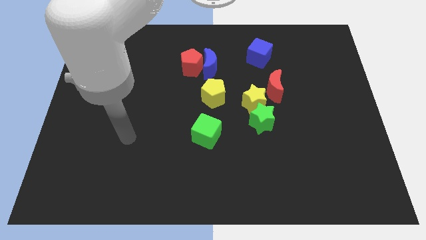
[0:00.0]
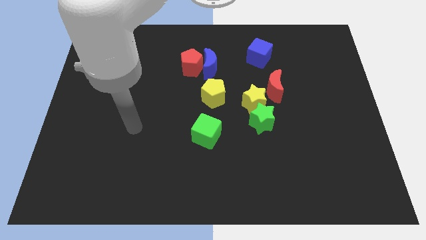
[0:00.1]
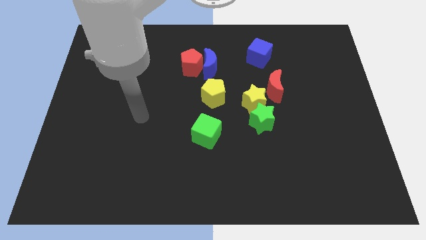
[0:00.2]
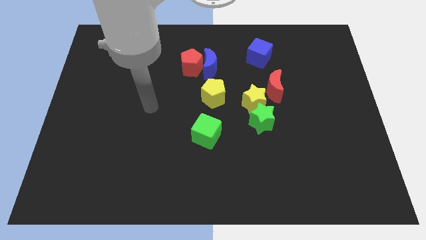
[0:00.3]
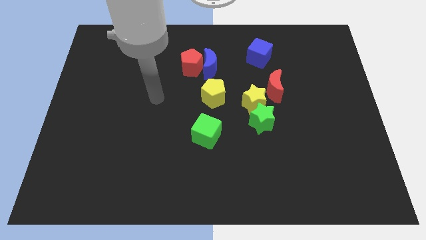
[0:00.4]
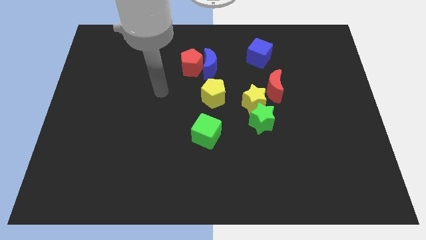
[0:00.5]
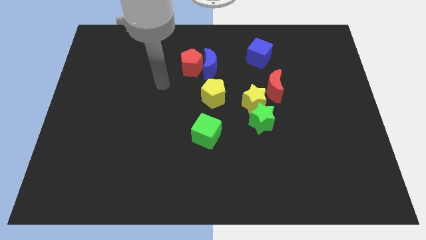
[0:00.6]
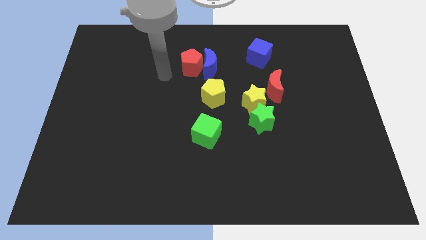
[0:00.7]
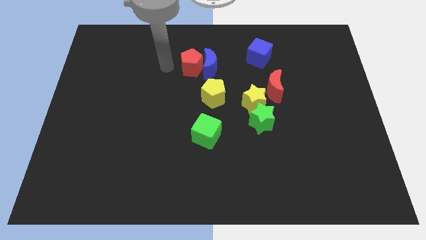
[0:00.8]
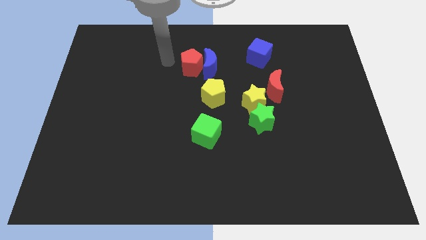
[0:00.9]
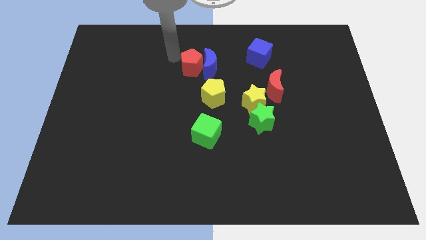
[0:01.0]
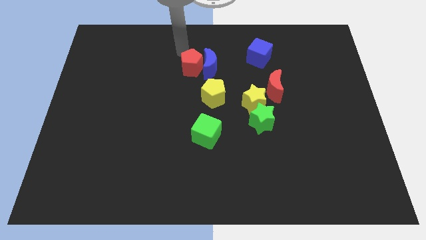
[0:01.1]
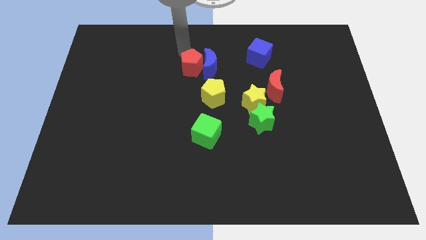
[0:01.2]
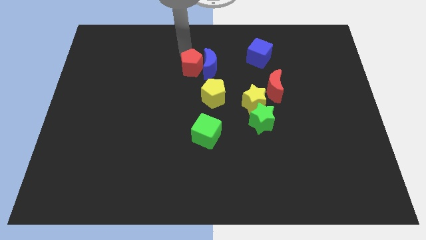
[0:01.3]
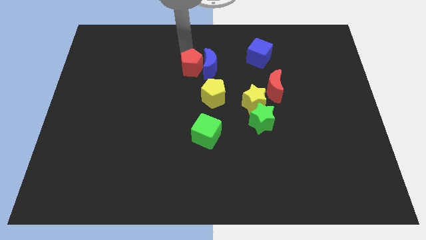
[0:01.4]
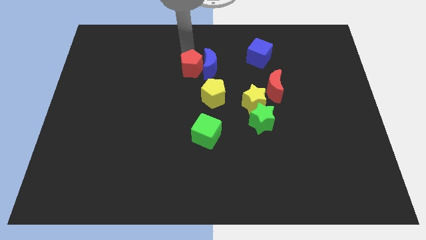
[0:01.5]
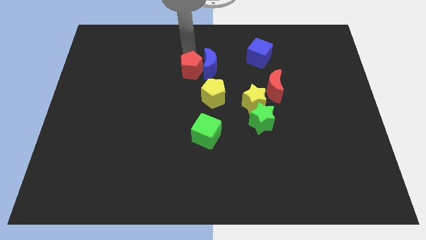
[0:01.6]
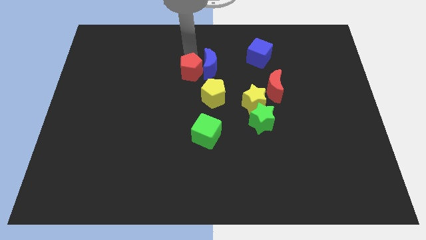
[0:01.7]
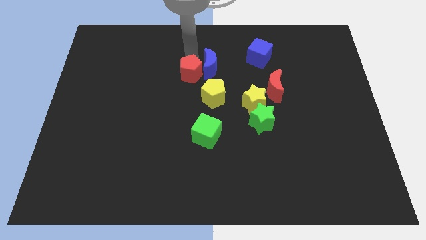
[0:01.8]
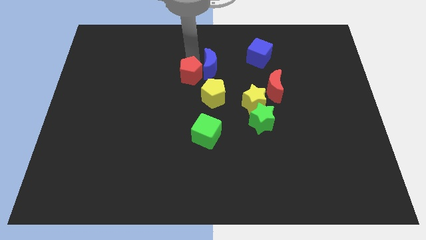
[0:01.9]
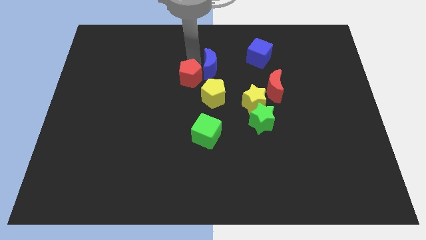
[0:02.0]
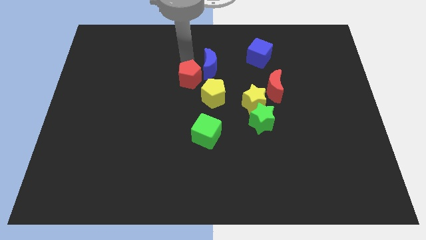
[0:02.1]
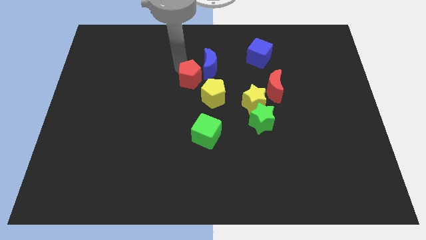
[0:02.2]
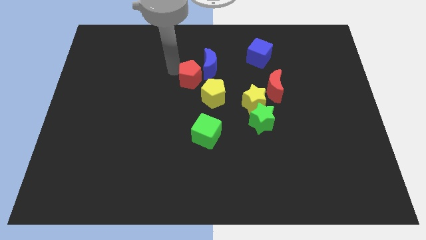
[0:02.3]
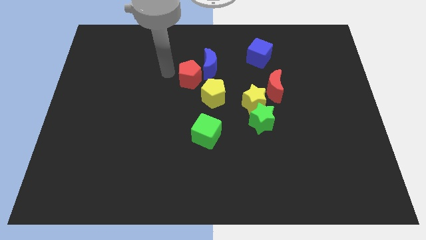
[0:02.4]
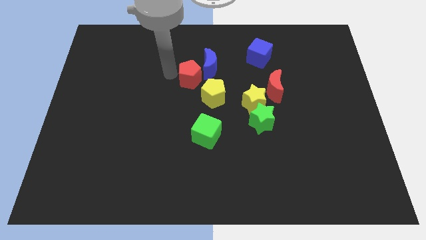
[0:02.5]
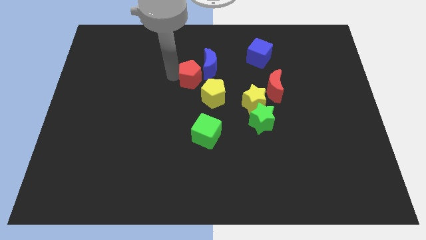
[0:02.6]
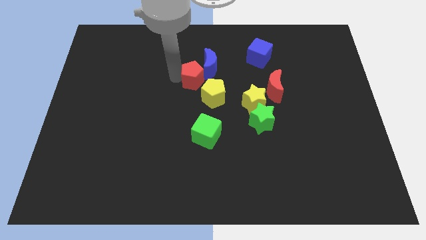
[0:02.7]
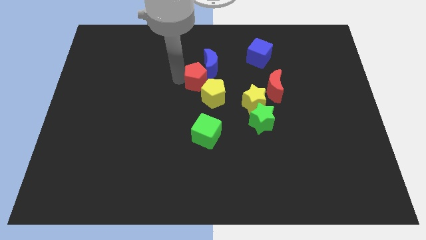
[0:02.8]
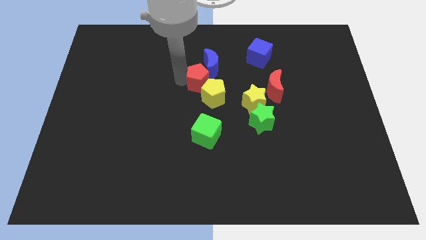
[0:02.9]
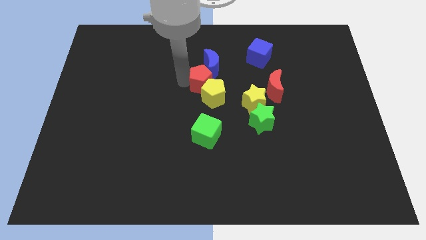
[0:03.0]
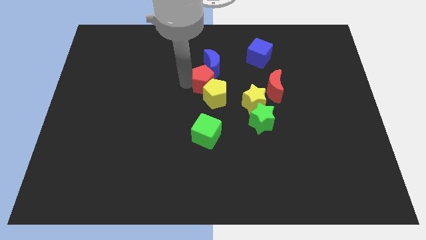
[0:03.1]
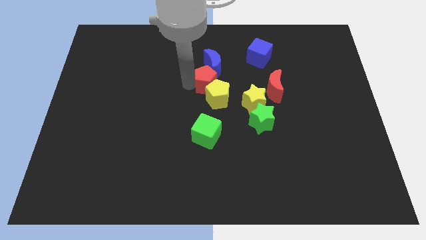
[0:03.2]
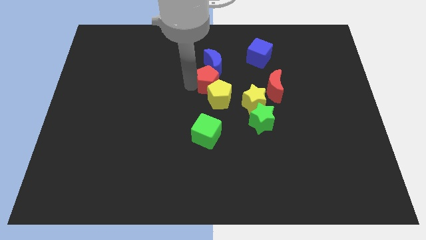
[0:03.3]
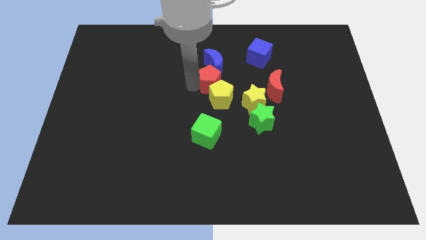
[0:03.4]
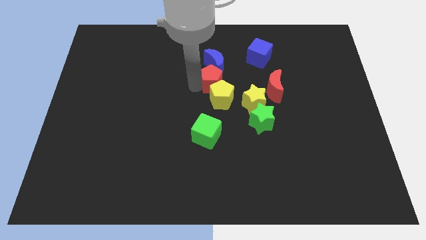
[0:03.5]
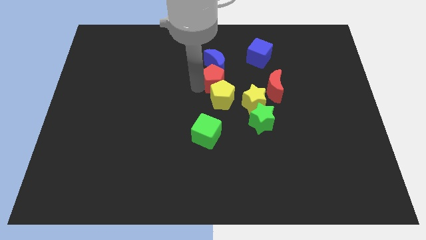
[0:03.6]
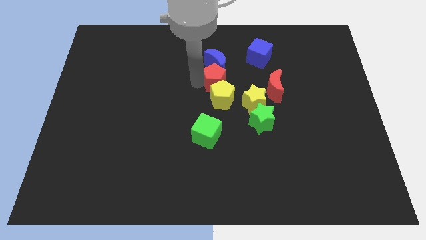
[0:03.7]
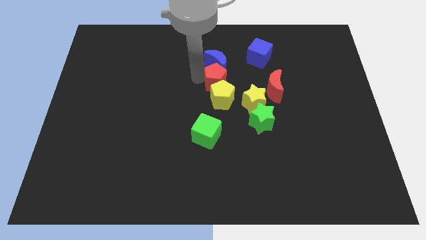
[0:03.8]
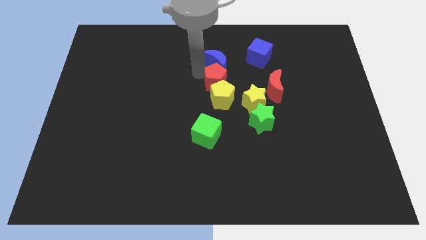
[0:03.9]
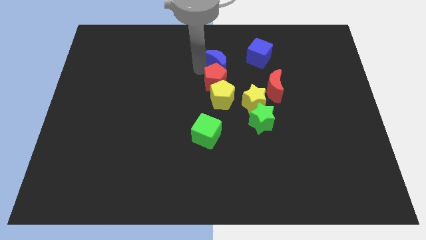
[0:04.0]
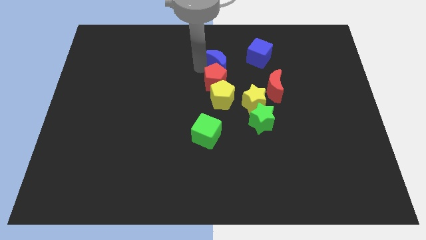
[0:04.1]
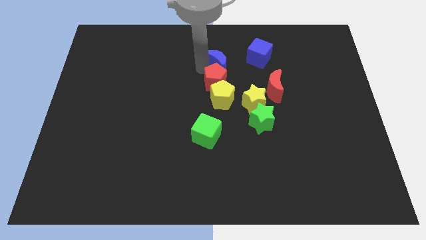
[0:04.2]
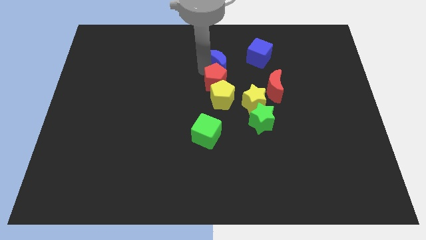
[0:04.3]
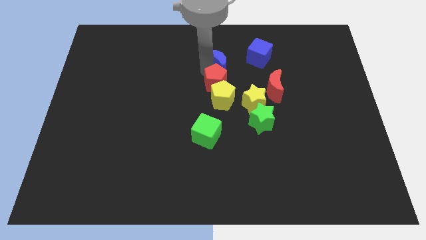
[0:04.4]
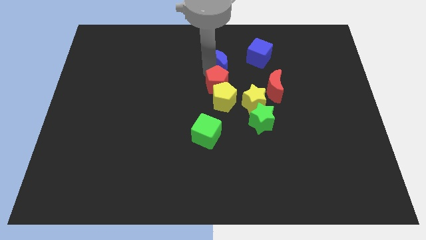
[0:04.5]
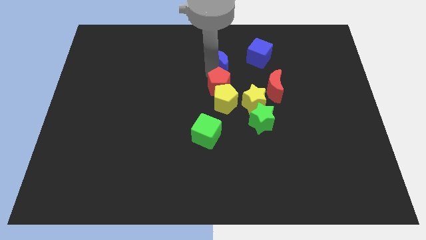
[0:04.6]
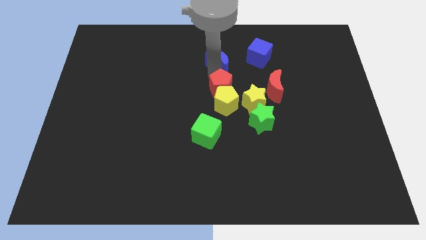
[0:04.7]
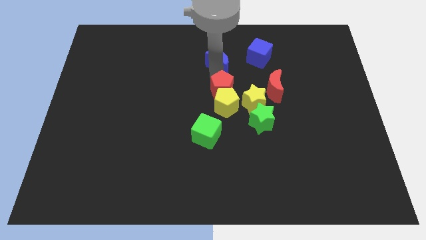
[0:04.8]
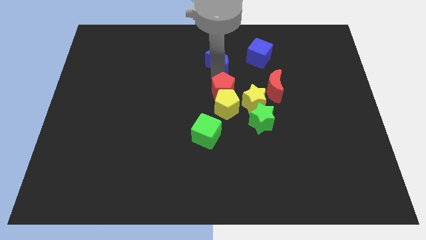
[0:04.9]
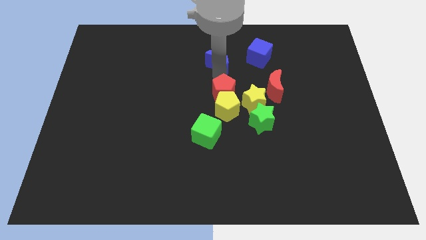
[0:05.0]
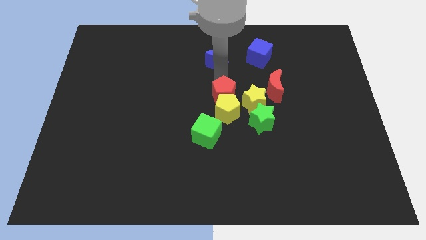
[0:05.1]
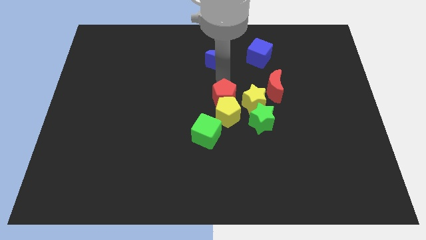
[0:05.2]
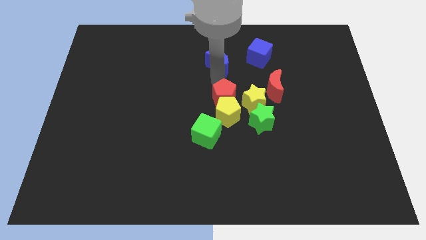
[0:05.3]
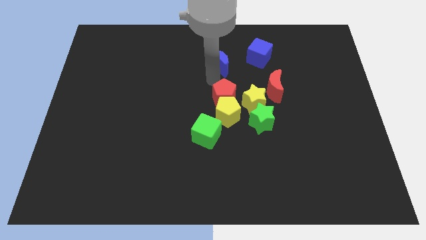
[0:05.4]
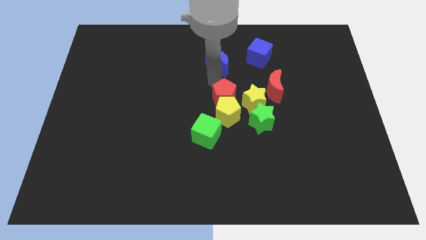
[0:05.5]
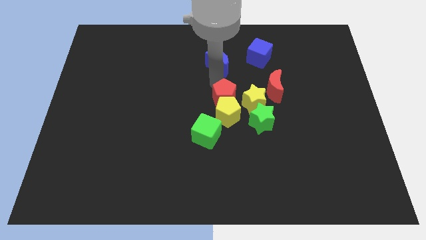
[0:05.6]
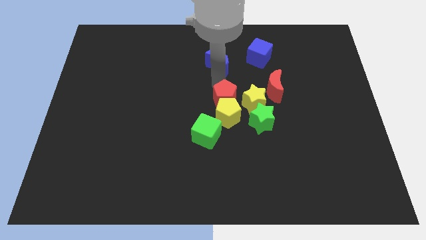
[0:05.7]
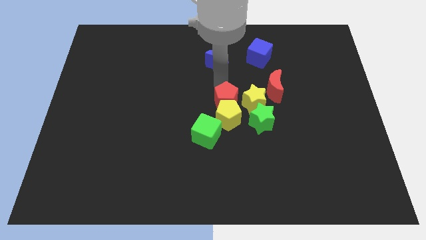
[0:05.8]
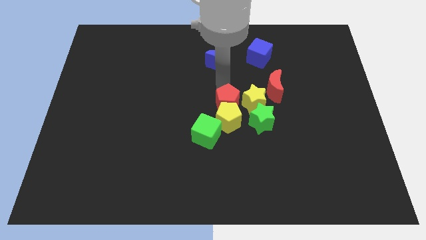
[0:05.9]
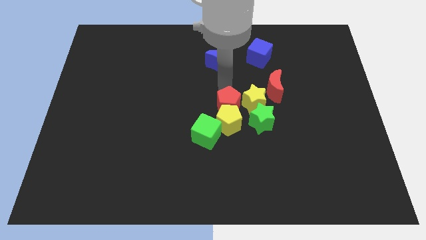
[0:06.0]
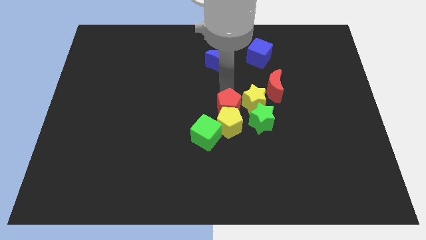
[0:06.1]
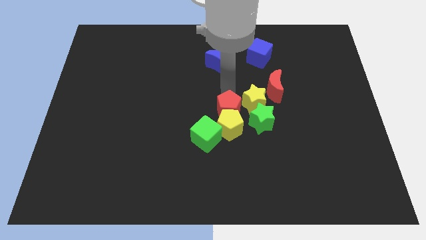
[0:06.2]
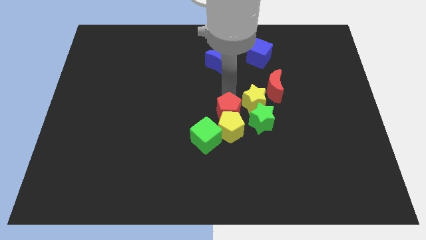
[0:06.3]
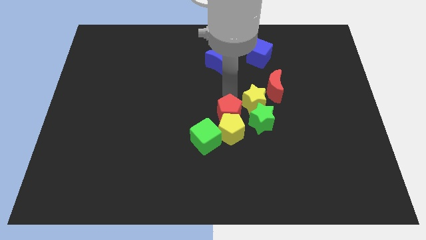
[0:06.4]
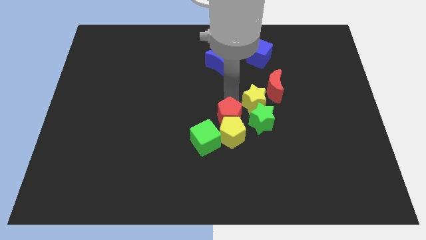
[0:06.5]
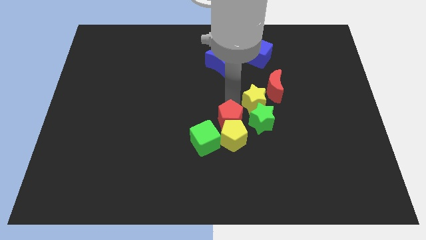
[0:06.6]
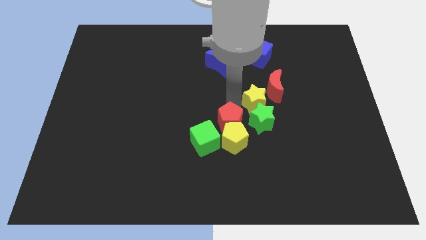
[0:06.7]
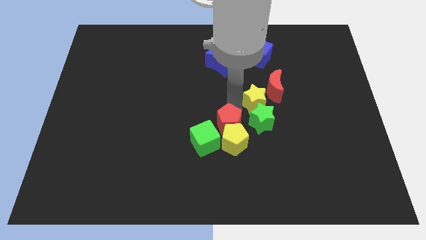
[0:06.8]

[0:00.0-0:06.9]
put the red pentagon to the right side of the green cube

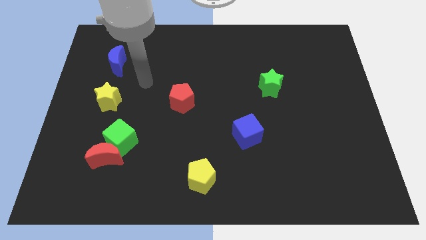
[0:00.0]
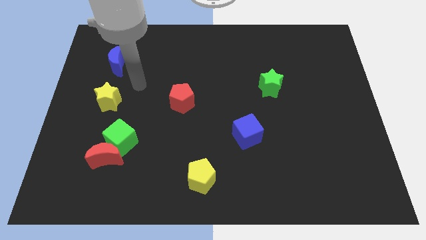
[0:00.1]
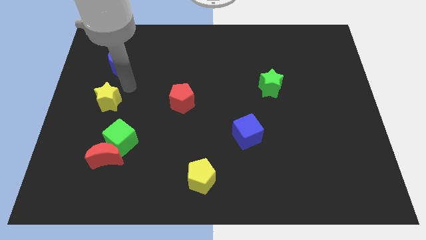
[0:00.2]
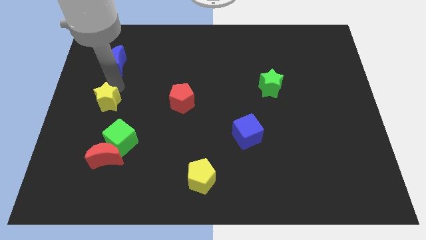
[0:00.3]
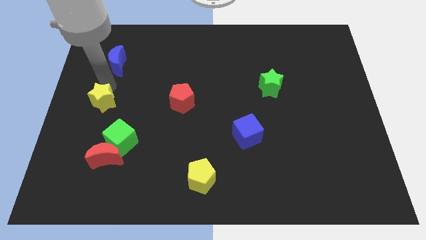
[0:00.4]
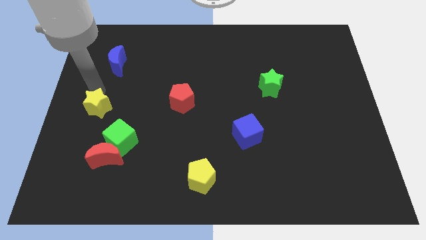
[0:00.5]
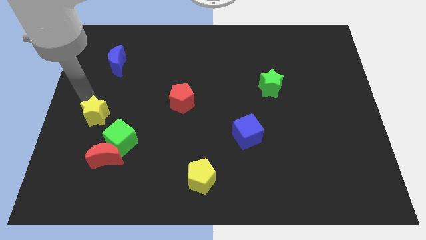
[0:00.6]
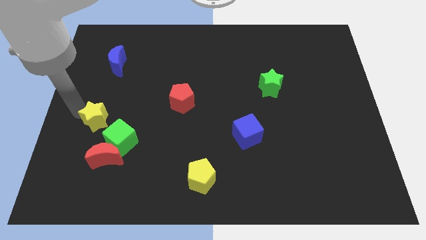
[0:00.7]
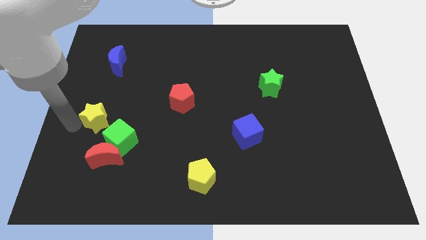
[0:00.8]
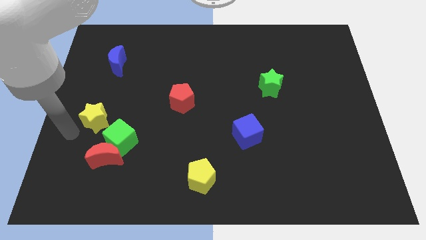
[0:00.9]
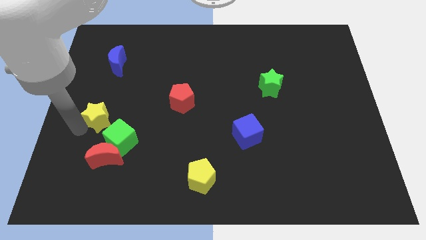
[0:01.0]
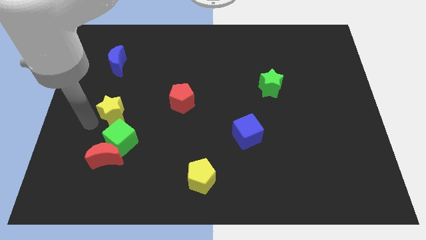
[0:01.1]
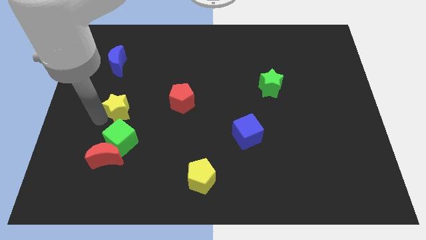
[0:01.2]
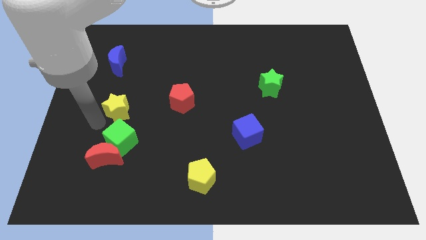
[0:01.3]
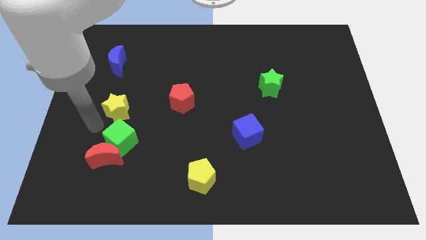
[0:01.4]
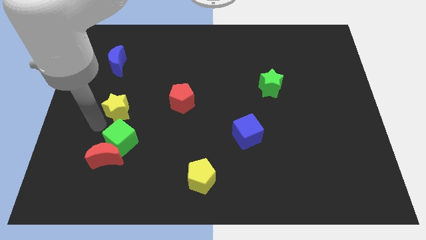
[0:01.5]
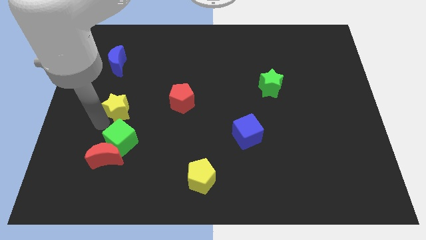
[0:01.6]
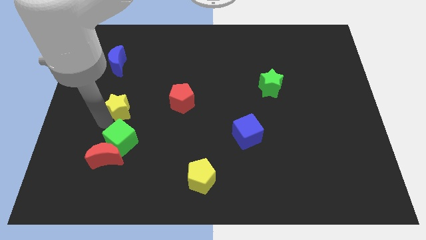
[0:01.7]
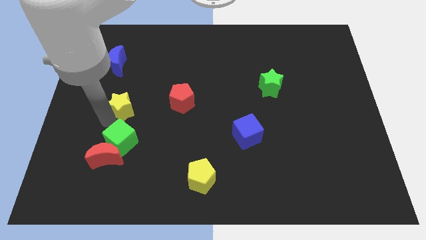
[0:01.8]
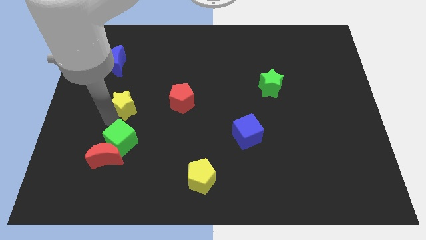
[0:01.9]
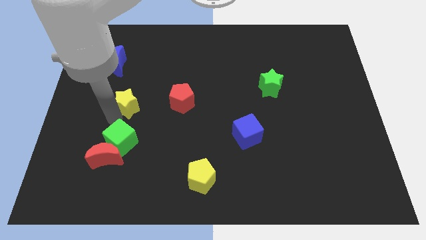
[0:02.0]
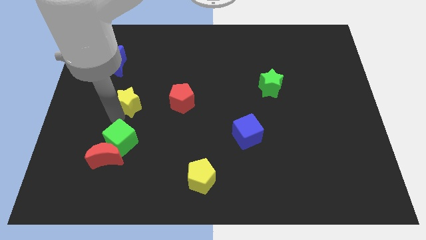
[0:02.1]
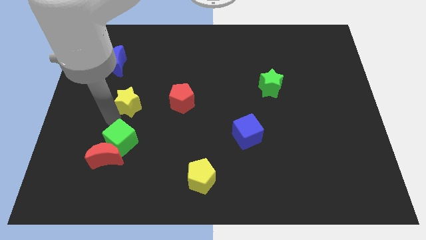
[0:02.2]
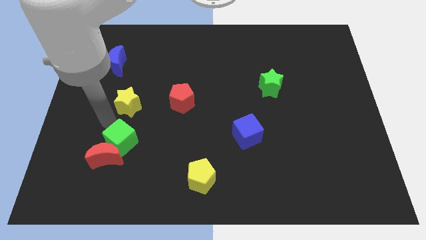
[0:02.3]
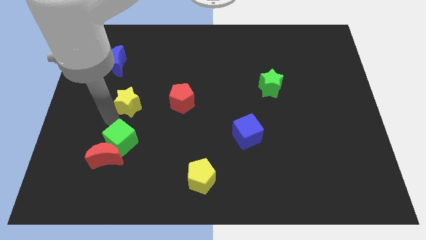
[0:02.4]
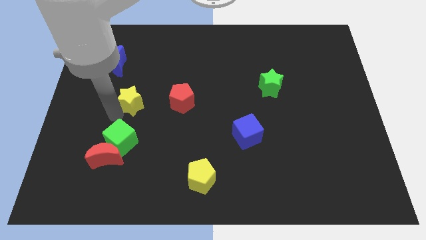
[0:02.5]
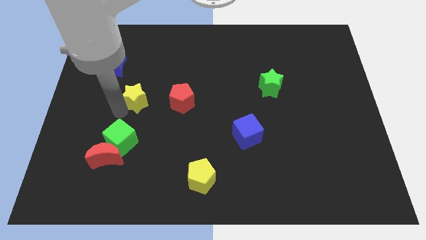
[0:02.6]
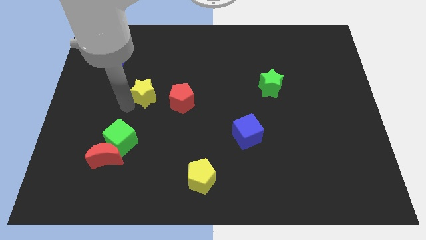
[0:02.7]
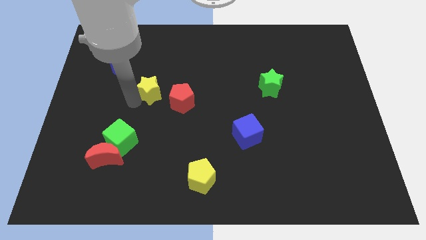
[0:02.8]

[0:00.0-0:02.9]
move the yellow star diagonally up and to the left of the red pentagon
